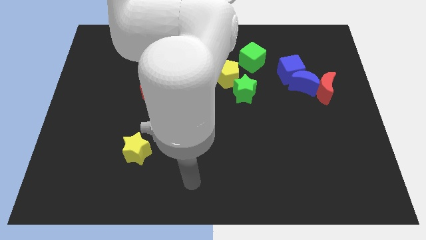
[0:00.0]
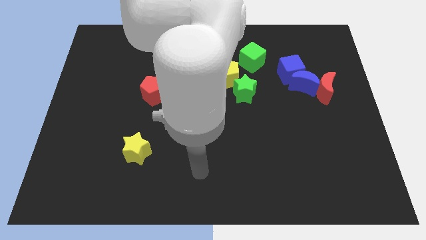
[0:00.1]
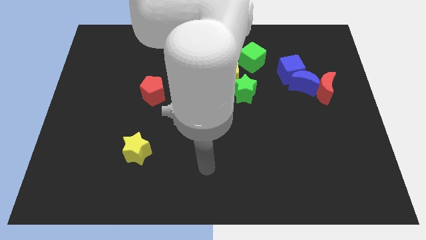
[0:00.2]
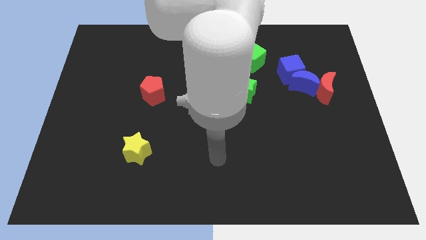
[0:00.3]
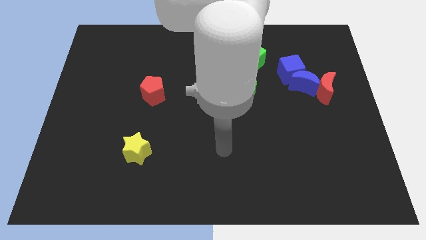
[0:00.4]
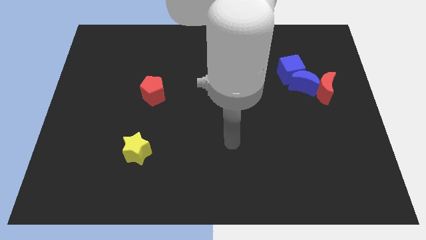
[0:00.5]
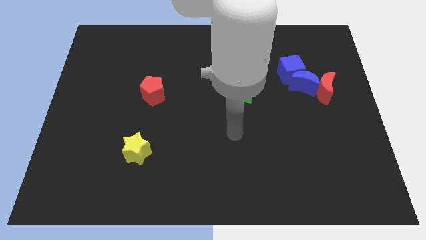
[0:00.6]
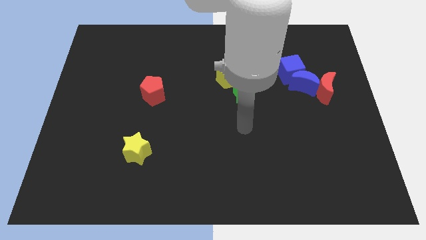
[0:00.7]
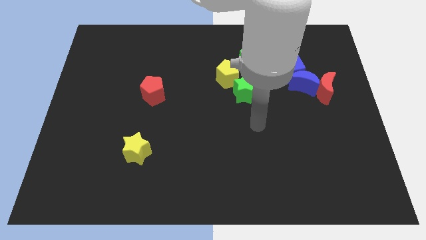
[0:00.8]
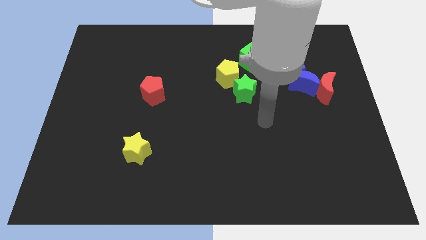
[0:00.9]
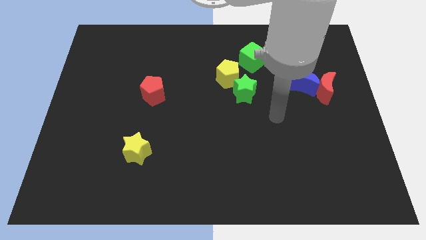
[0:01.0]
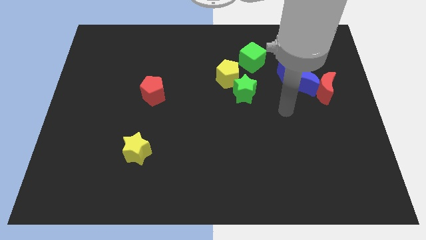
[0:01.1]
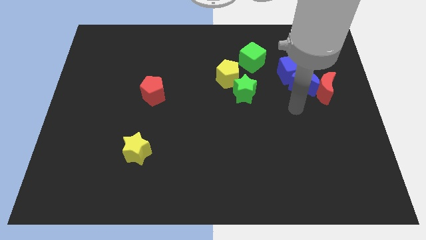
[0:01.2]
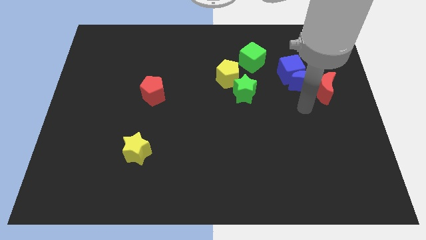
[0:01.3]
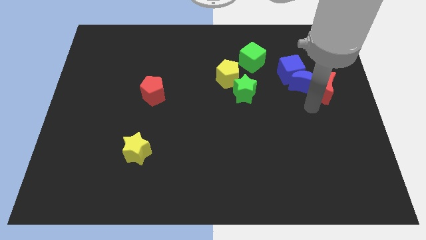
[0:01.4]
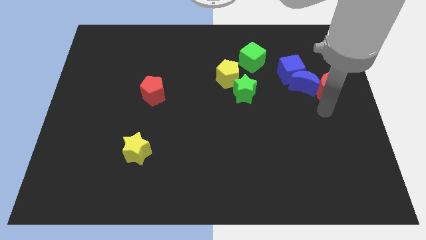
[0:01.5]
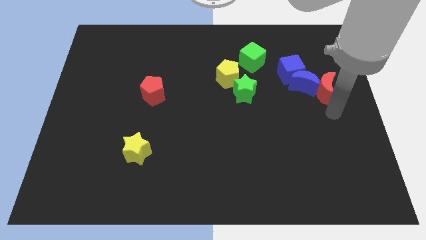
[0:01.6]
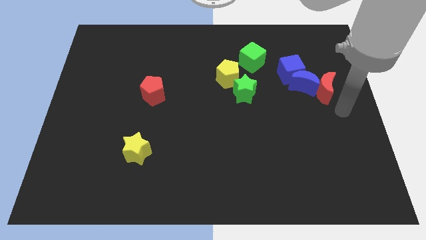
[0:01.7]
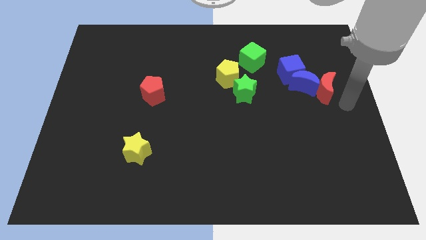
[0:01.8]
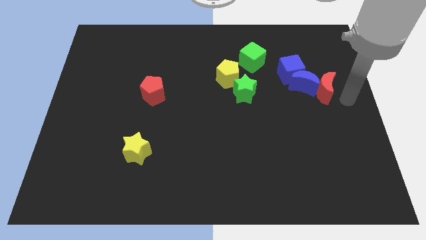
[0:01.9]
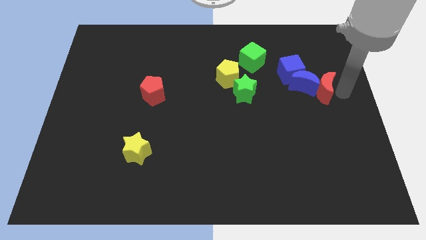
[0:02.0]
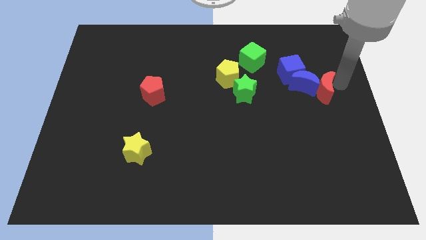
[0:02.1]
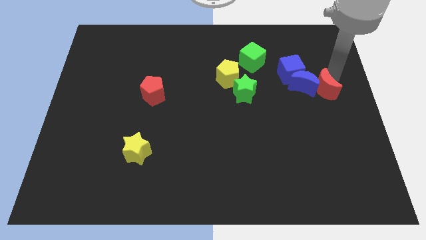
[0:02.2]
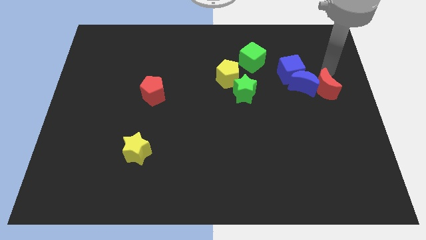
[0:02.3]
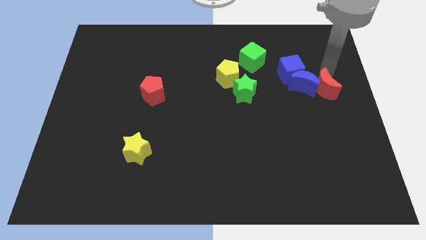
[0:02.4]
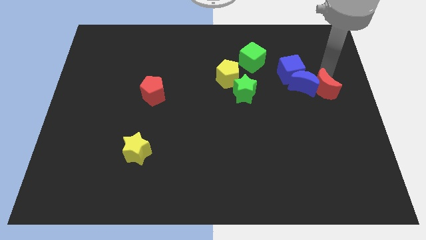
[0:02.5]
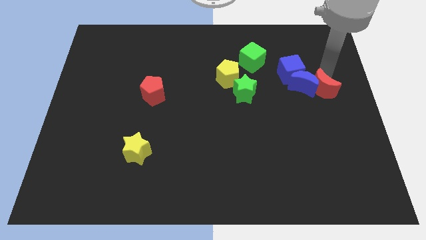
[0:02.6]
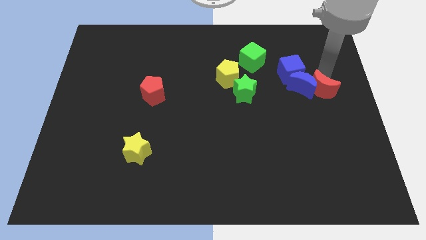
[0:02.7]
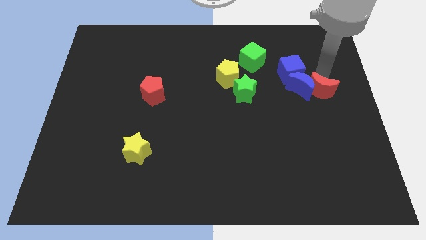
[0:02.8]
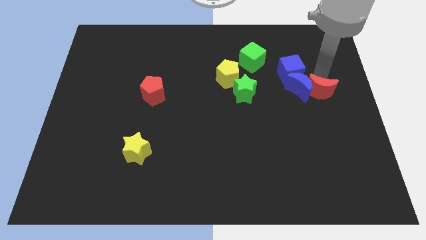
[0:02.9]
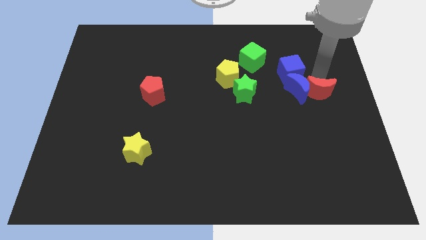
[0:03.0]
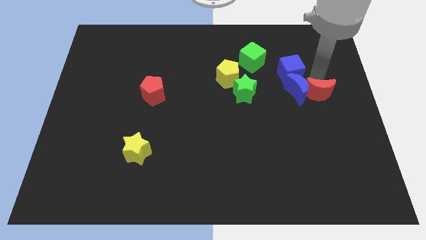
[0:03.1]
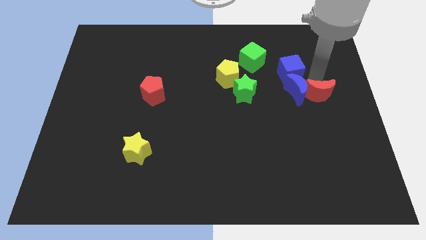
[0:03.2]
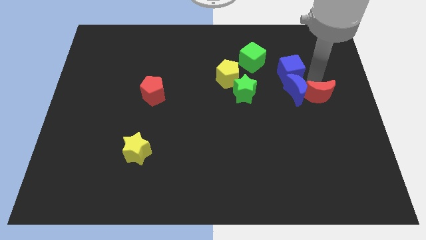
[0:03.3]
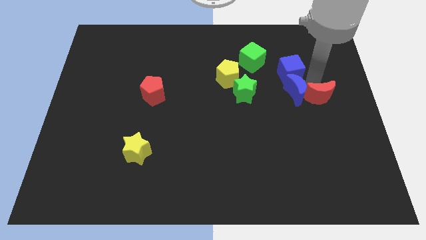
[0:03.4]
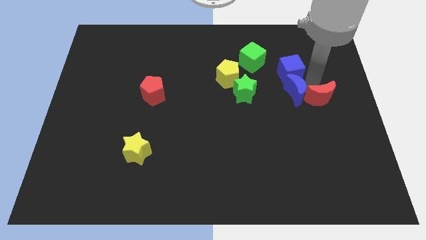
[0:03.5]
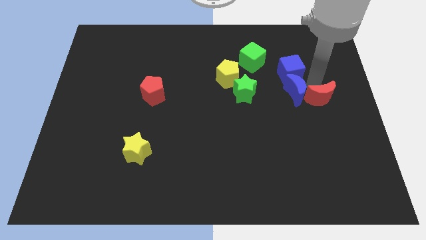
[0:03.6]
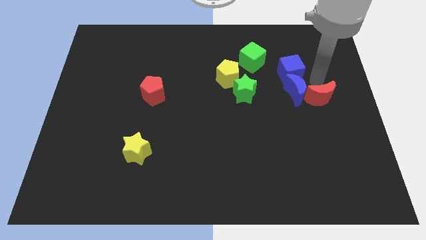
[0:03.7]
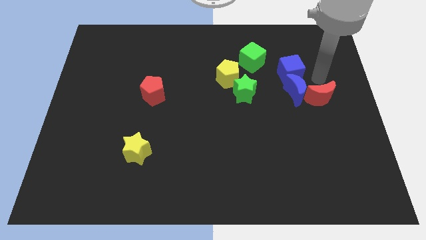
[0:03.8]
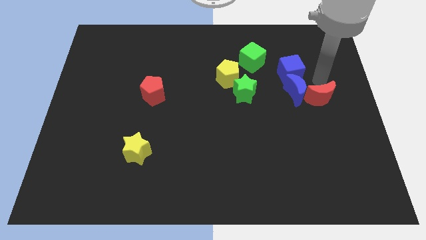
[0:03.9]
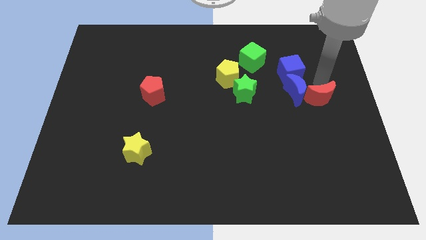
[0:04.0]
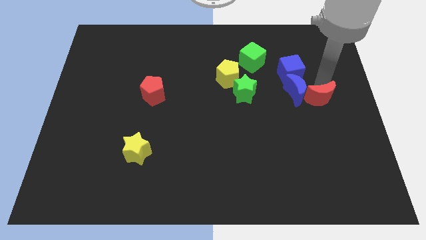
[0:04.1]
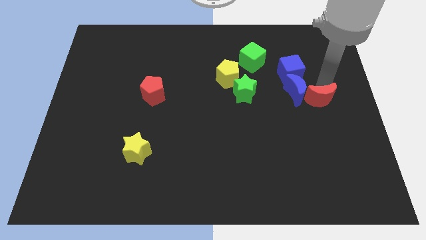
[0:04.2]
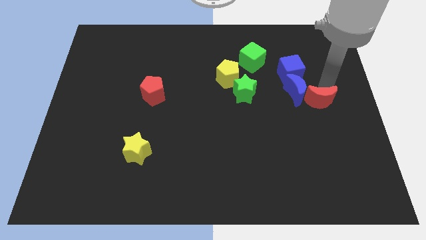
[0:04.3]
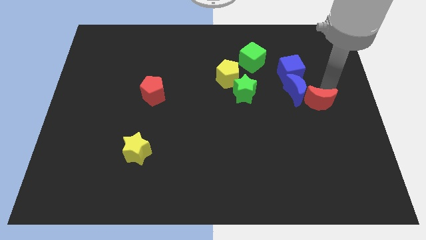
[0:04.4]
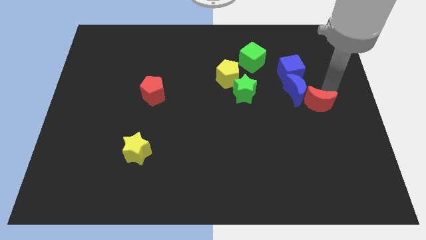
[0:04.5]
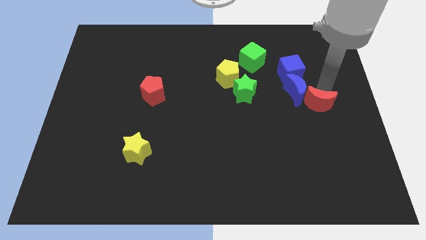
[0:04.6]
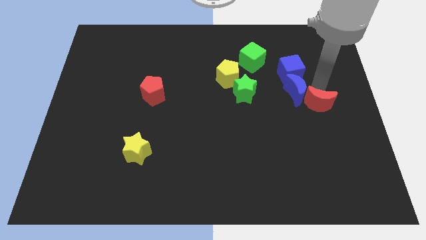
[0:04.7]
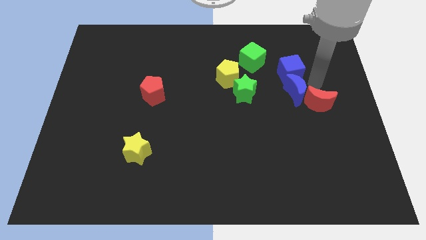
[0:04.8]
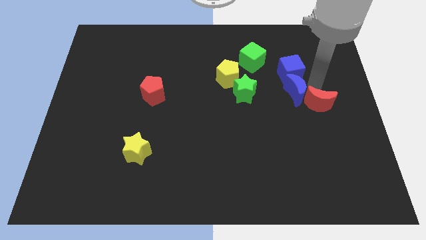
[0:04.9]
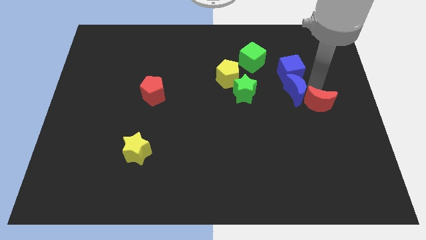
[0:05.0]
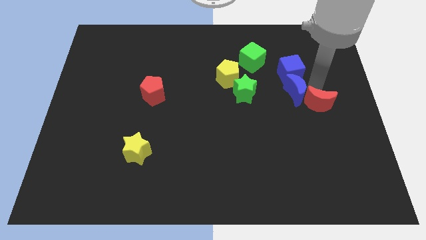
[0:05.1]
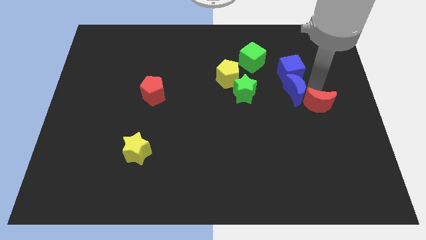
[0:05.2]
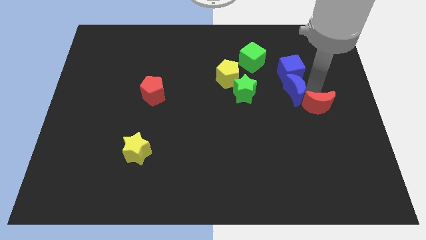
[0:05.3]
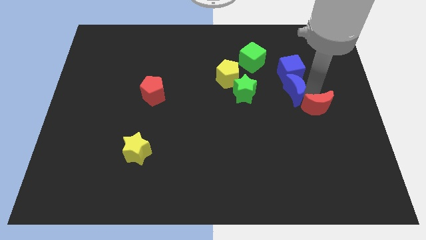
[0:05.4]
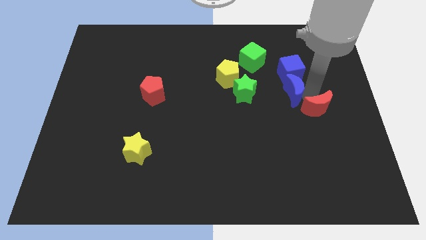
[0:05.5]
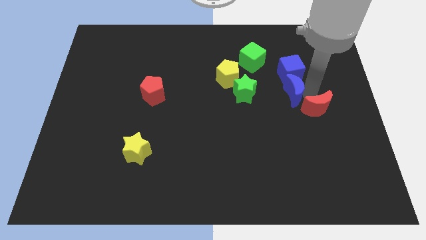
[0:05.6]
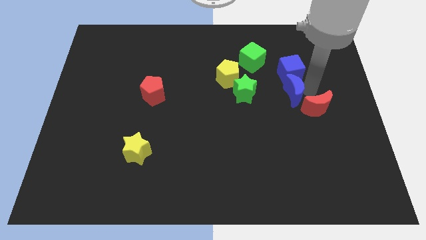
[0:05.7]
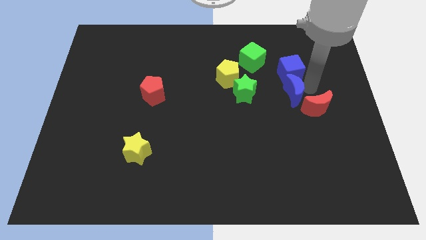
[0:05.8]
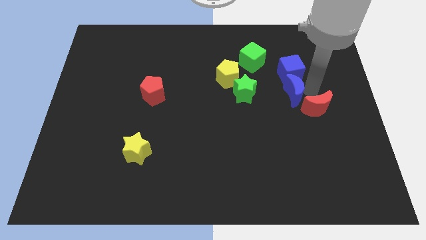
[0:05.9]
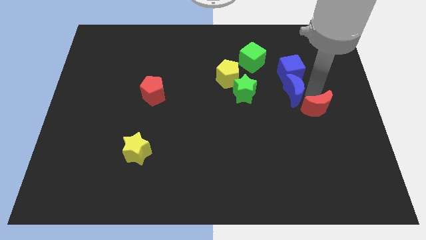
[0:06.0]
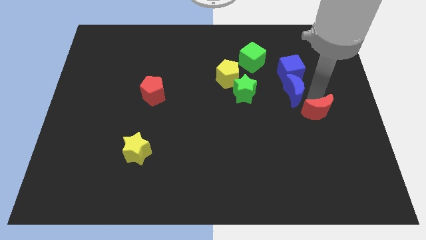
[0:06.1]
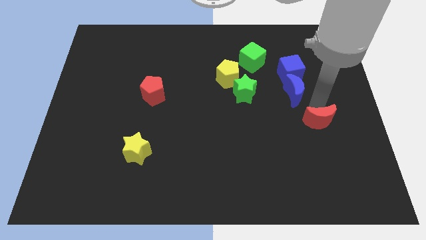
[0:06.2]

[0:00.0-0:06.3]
move the red moon slightly downwards

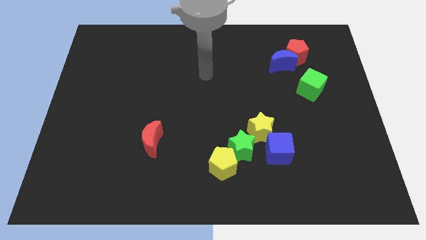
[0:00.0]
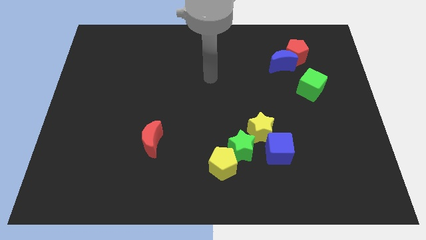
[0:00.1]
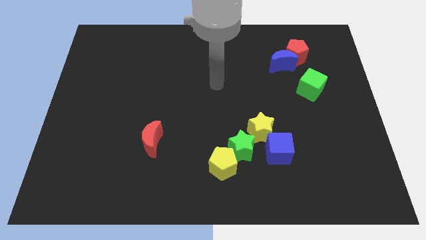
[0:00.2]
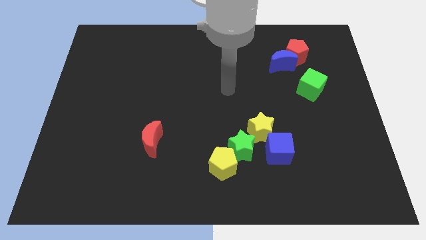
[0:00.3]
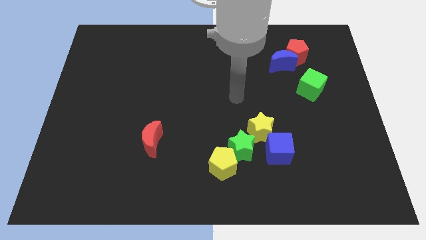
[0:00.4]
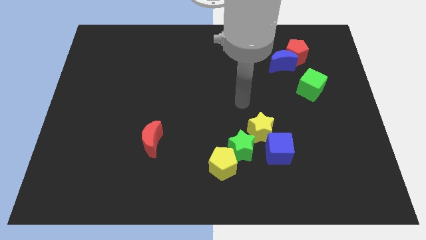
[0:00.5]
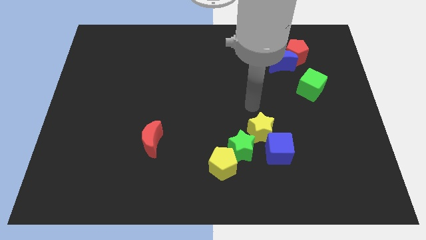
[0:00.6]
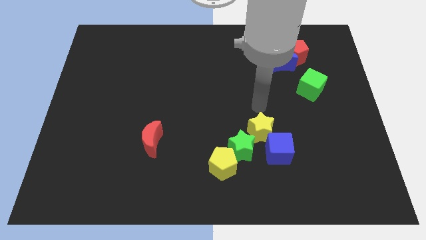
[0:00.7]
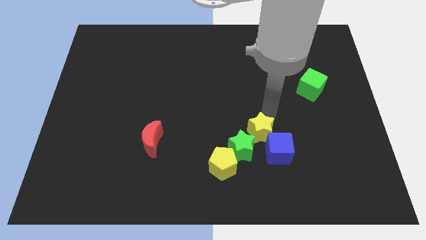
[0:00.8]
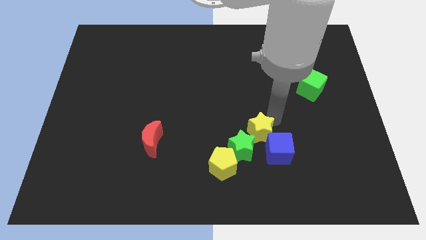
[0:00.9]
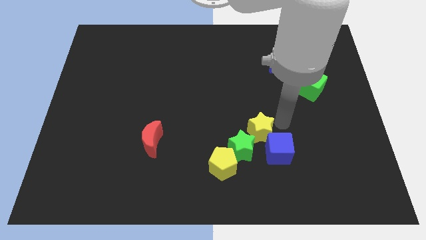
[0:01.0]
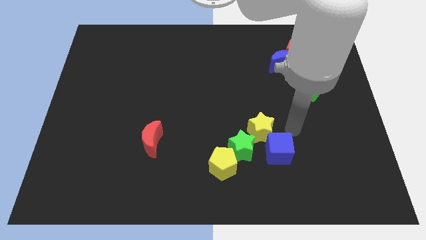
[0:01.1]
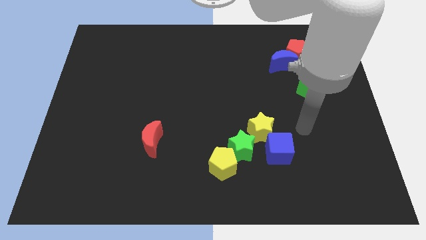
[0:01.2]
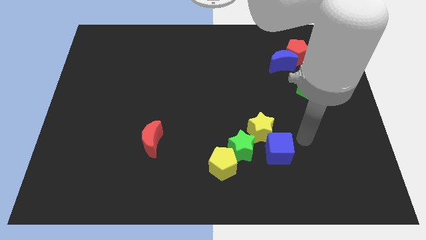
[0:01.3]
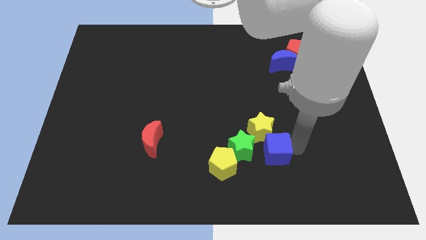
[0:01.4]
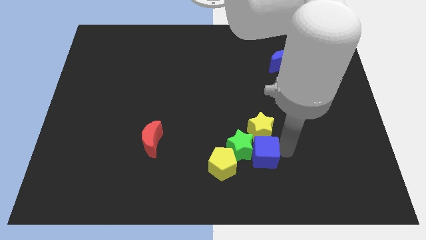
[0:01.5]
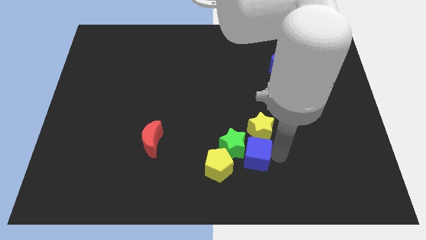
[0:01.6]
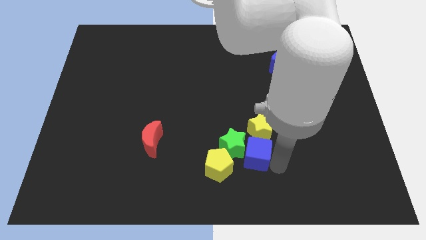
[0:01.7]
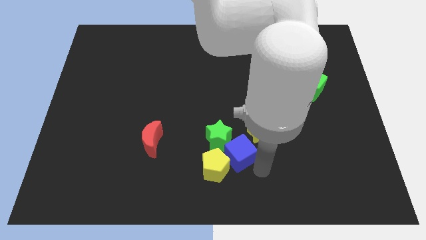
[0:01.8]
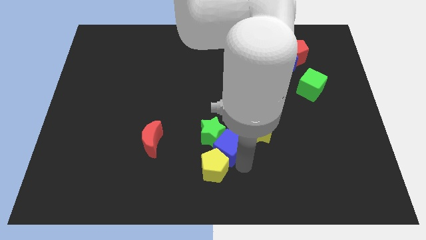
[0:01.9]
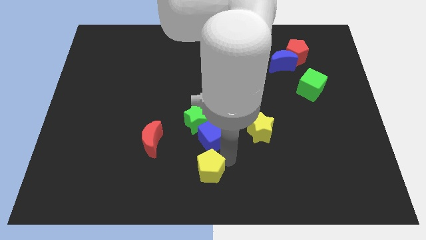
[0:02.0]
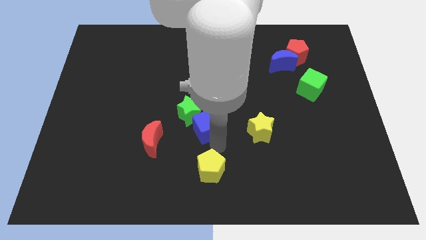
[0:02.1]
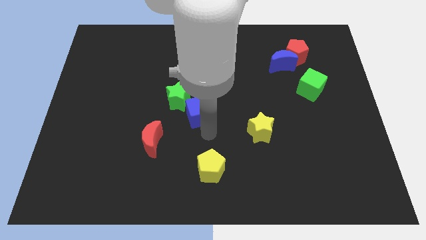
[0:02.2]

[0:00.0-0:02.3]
push the green star upwards and to the left diagonally
